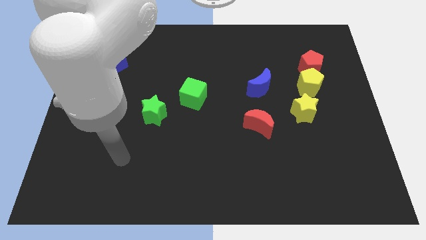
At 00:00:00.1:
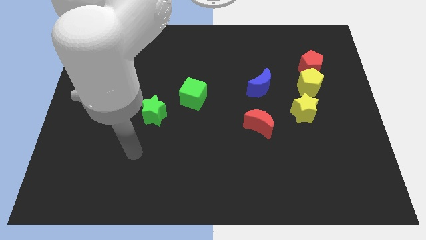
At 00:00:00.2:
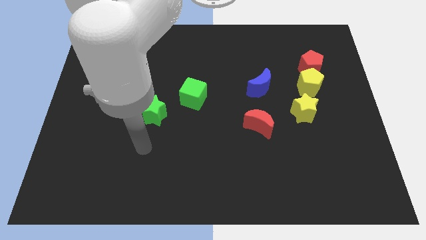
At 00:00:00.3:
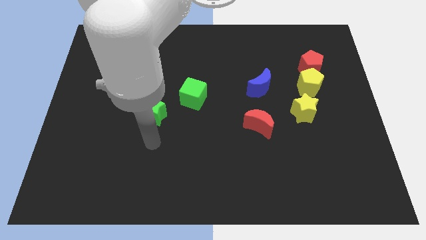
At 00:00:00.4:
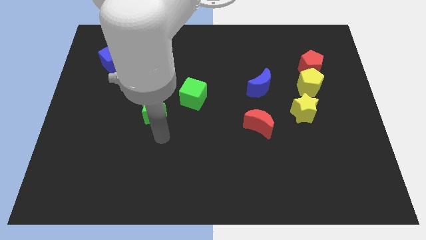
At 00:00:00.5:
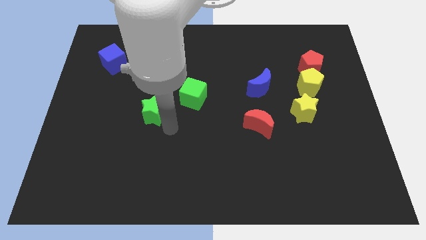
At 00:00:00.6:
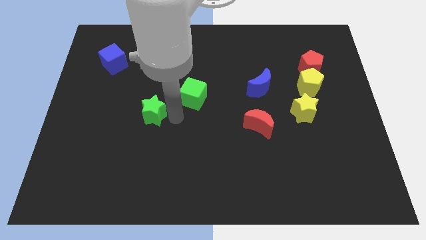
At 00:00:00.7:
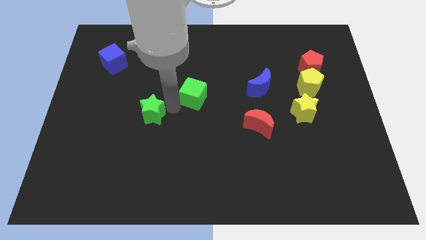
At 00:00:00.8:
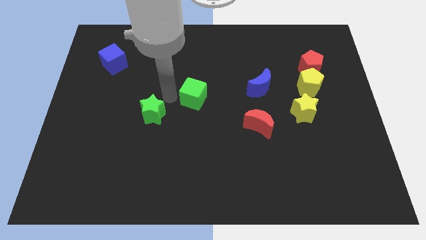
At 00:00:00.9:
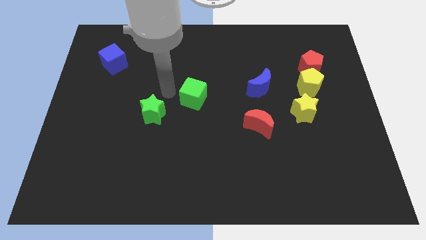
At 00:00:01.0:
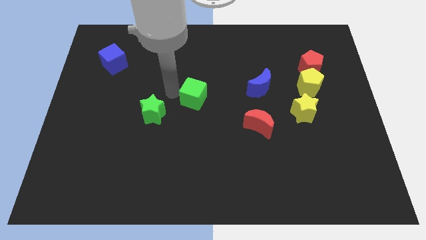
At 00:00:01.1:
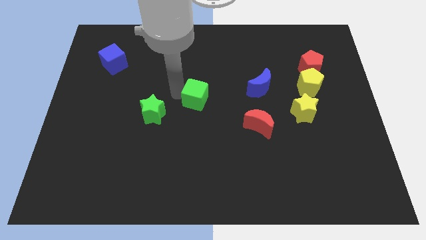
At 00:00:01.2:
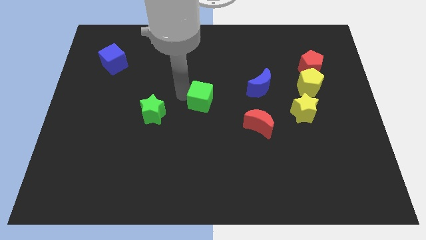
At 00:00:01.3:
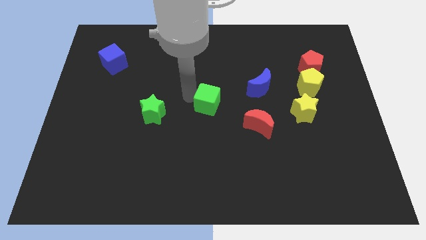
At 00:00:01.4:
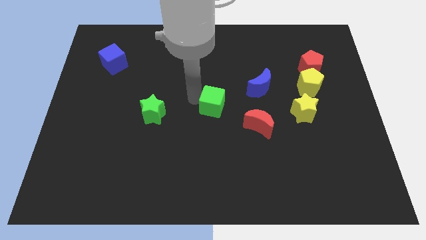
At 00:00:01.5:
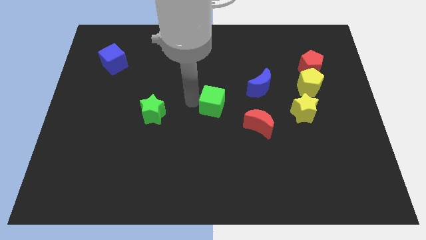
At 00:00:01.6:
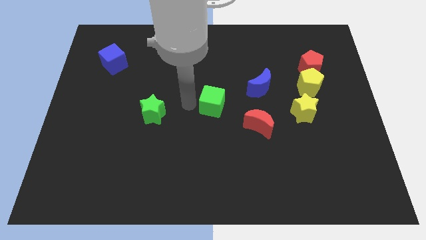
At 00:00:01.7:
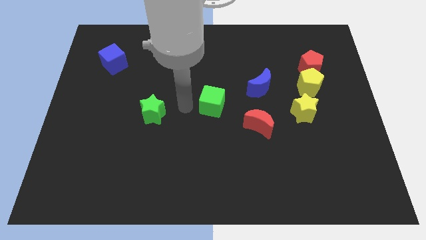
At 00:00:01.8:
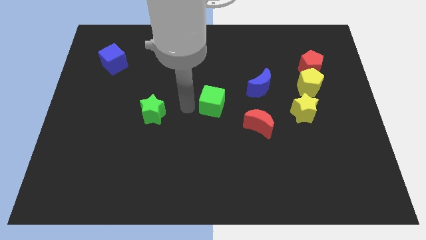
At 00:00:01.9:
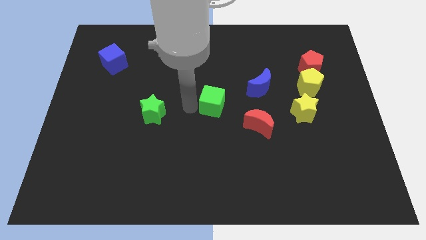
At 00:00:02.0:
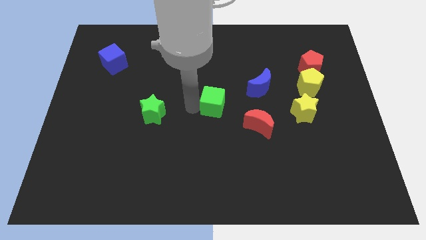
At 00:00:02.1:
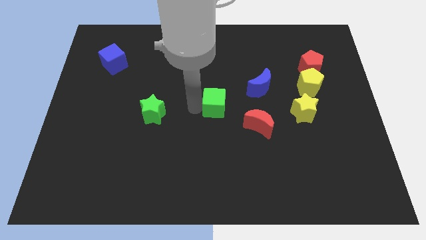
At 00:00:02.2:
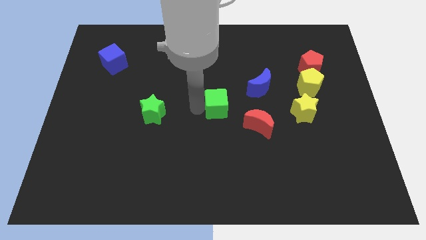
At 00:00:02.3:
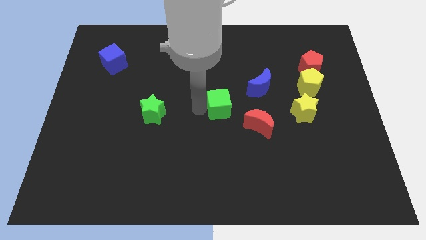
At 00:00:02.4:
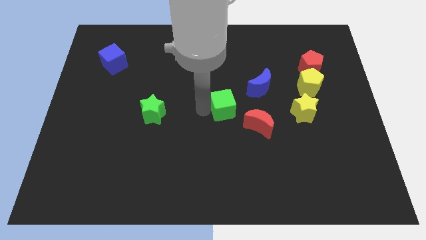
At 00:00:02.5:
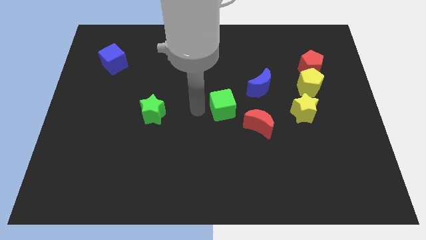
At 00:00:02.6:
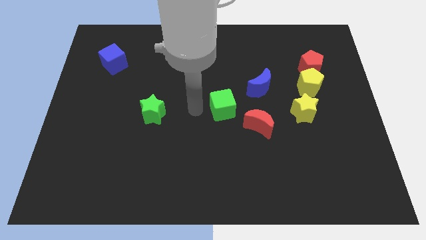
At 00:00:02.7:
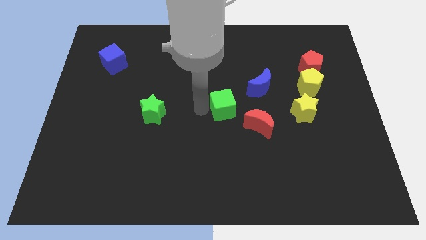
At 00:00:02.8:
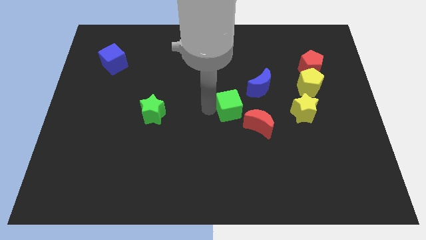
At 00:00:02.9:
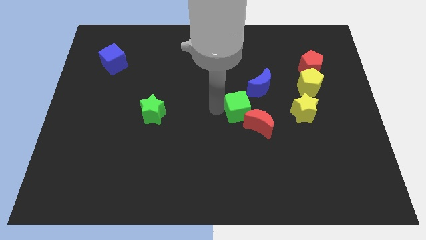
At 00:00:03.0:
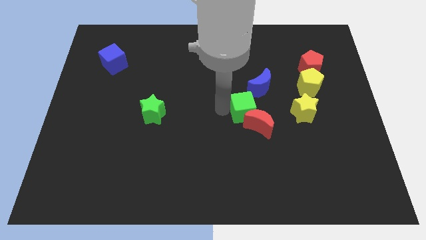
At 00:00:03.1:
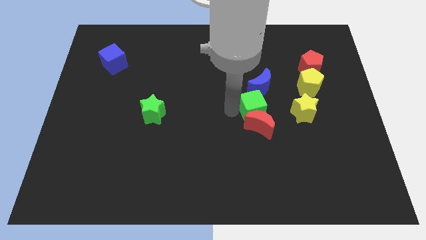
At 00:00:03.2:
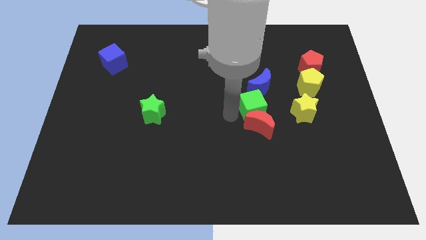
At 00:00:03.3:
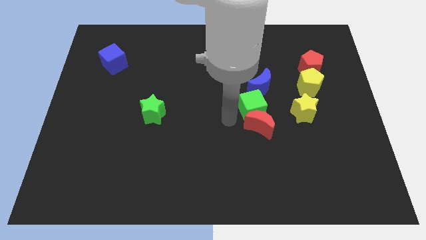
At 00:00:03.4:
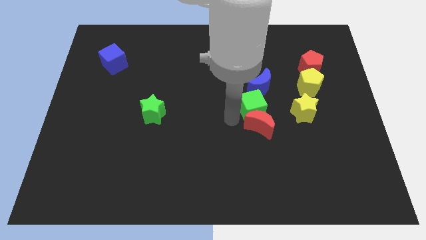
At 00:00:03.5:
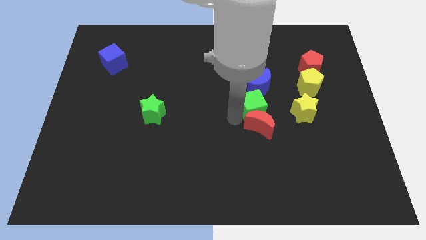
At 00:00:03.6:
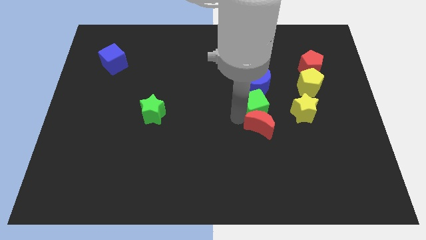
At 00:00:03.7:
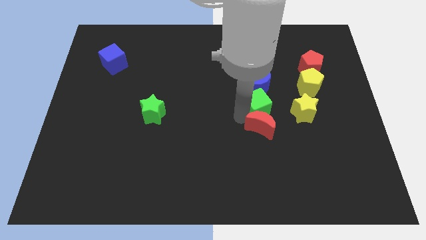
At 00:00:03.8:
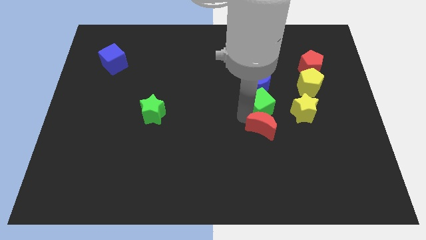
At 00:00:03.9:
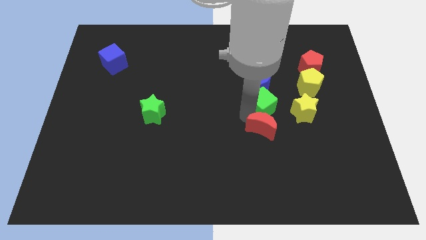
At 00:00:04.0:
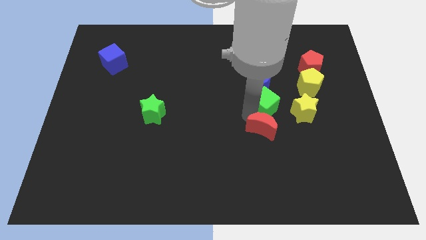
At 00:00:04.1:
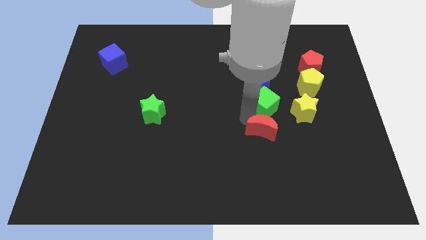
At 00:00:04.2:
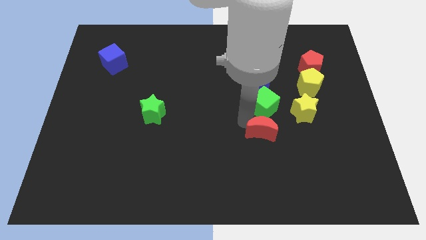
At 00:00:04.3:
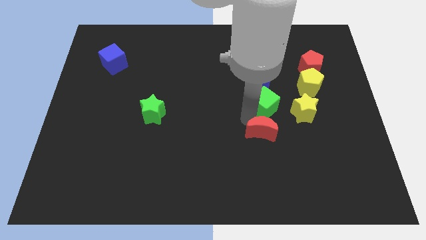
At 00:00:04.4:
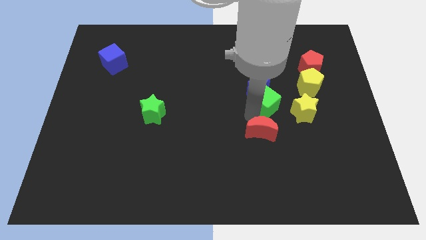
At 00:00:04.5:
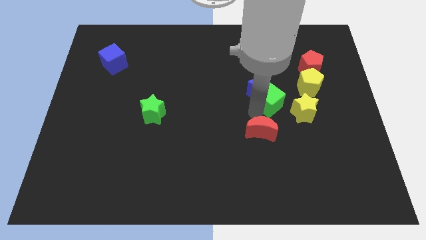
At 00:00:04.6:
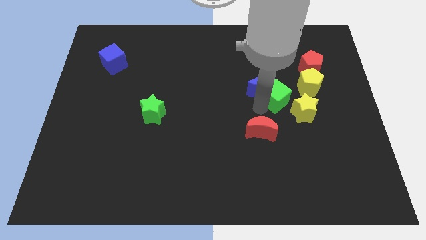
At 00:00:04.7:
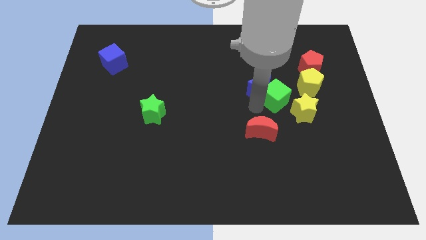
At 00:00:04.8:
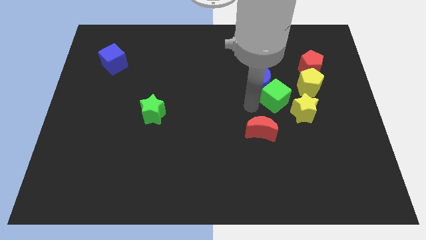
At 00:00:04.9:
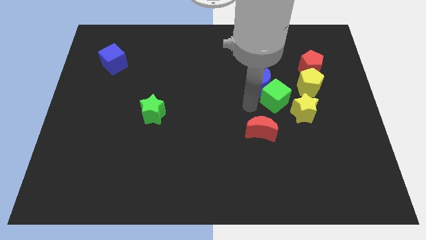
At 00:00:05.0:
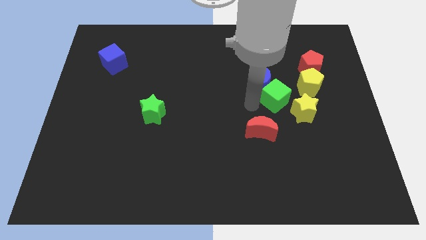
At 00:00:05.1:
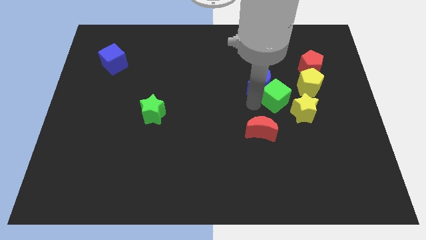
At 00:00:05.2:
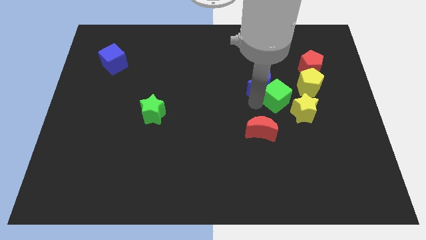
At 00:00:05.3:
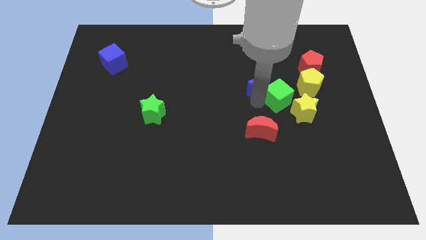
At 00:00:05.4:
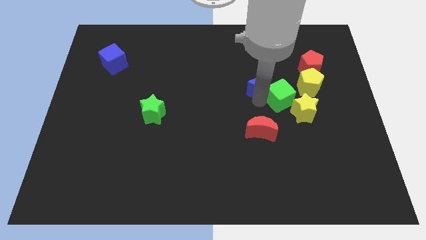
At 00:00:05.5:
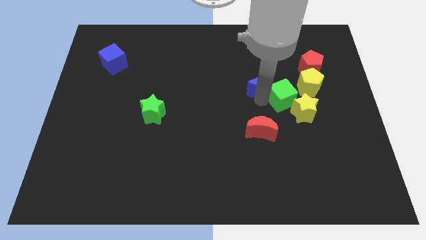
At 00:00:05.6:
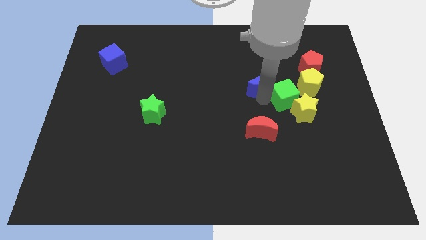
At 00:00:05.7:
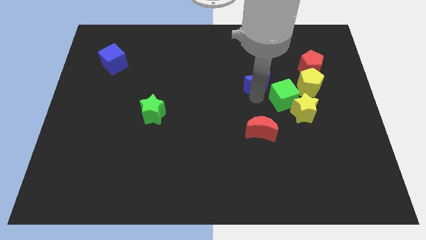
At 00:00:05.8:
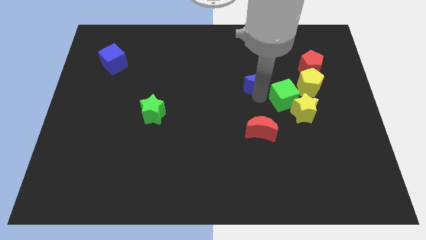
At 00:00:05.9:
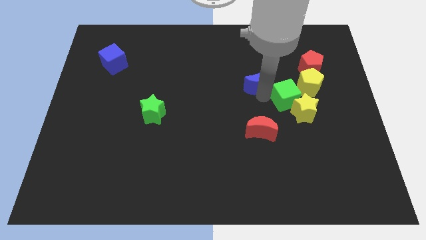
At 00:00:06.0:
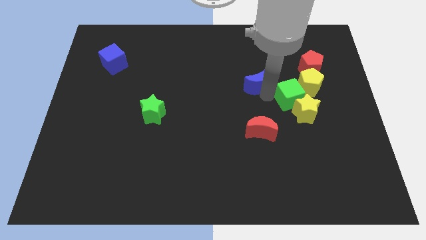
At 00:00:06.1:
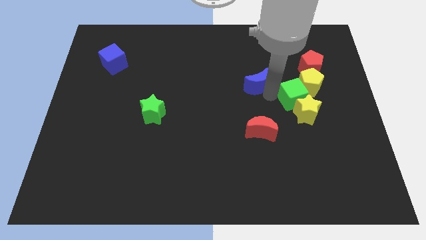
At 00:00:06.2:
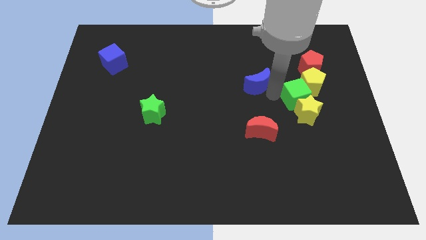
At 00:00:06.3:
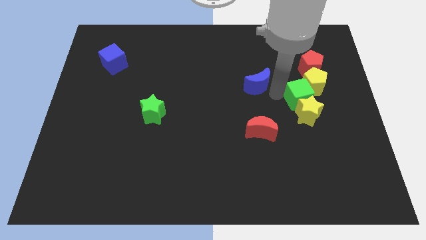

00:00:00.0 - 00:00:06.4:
move the green cube below the red pentagon

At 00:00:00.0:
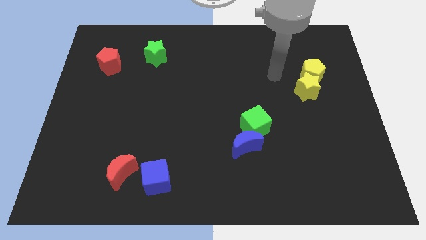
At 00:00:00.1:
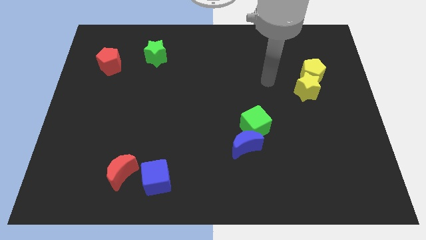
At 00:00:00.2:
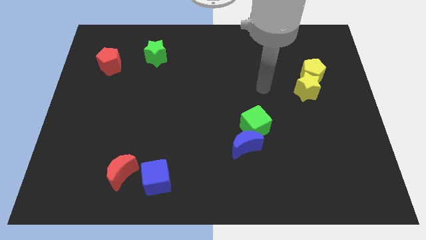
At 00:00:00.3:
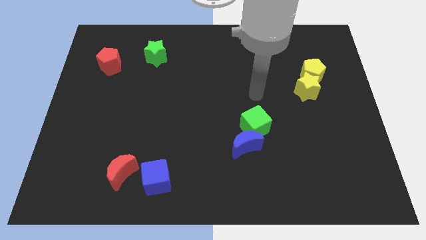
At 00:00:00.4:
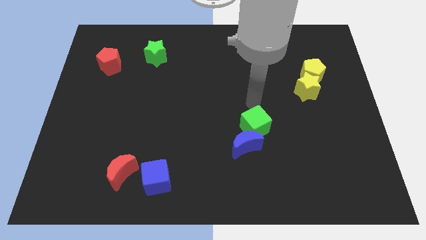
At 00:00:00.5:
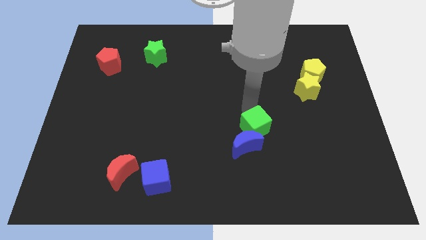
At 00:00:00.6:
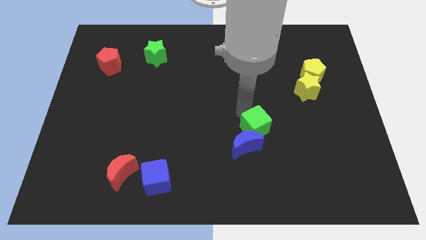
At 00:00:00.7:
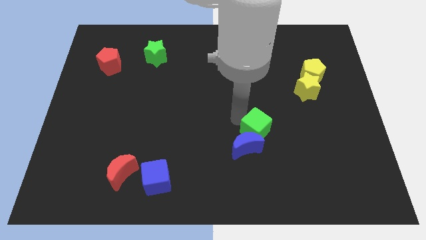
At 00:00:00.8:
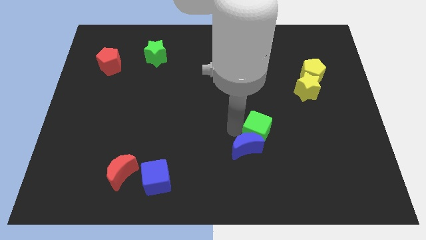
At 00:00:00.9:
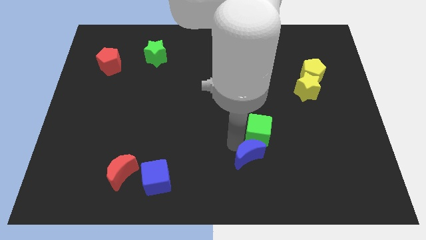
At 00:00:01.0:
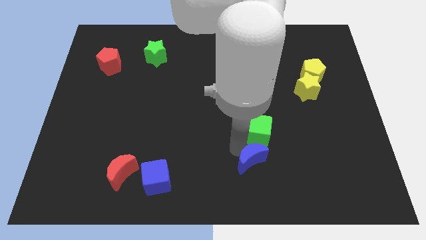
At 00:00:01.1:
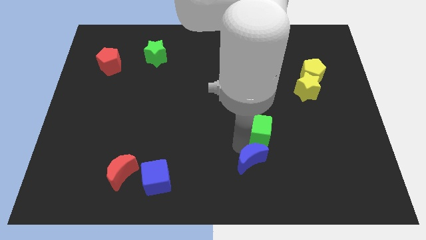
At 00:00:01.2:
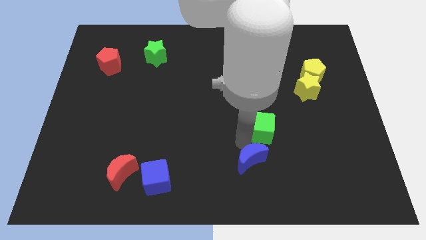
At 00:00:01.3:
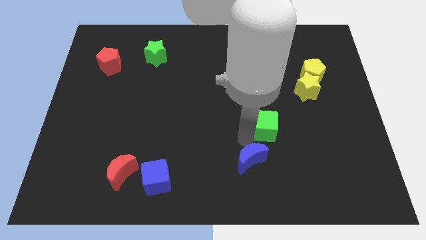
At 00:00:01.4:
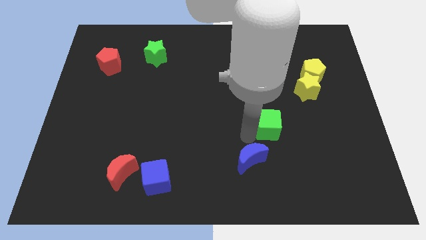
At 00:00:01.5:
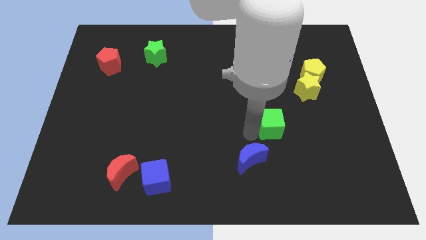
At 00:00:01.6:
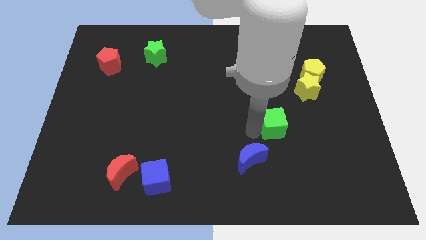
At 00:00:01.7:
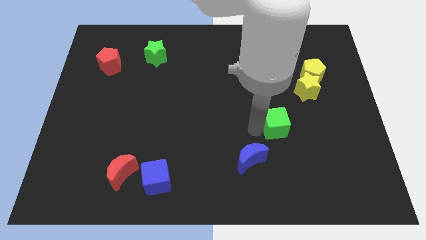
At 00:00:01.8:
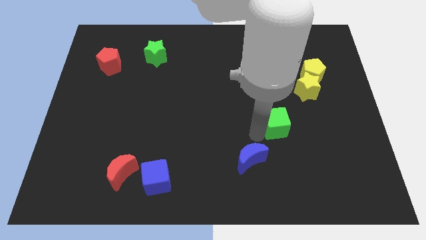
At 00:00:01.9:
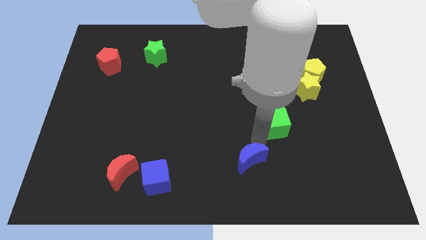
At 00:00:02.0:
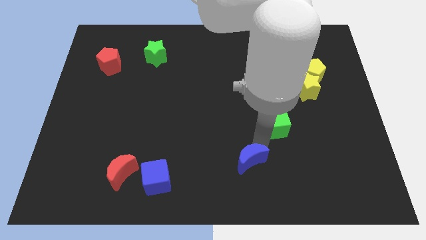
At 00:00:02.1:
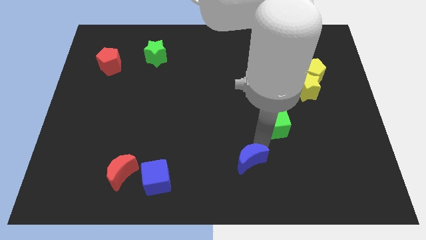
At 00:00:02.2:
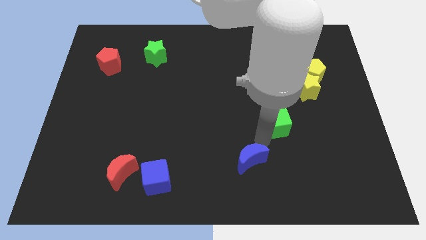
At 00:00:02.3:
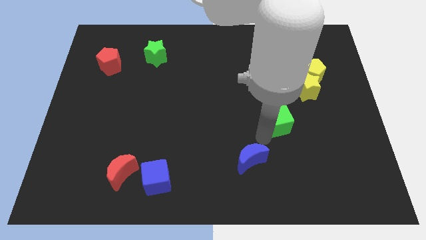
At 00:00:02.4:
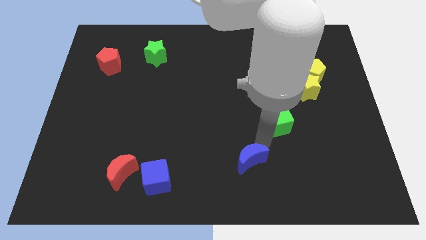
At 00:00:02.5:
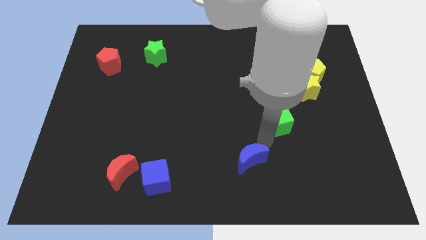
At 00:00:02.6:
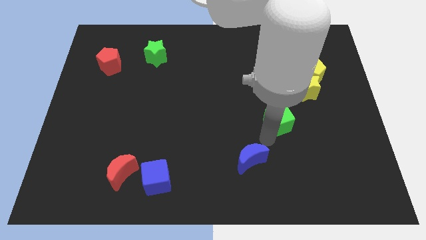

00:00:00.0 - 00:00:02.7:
push the green cube to the bottom left side of the yellow star
